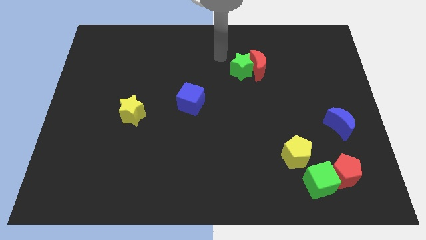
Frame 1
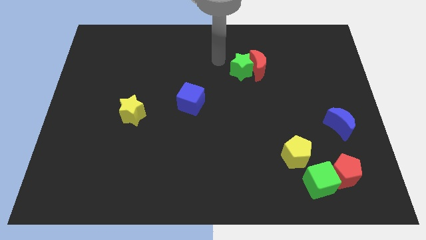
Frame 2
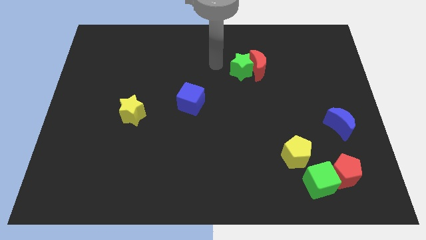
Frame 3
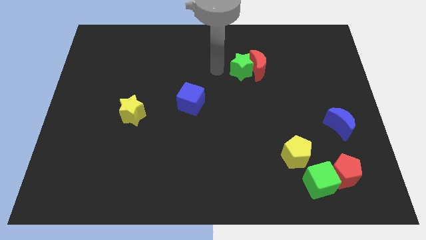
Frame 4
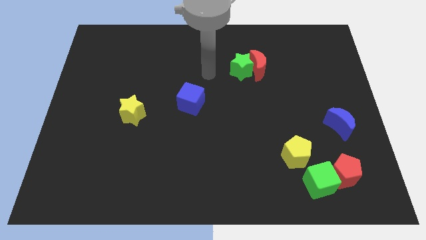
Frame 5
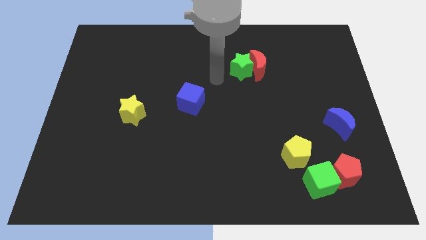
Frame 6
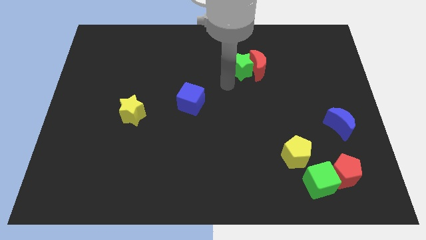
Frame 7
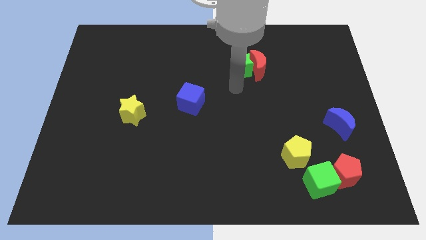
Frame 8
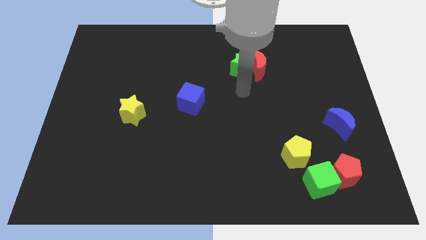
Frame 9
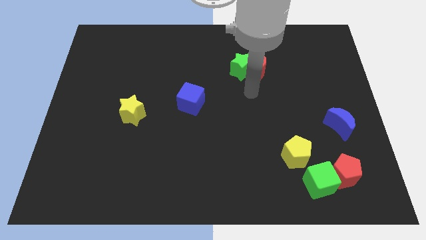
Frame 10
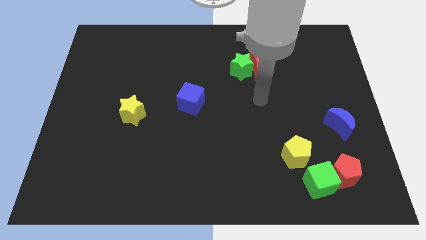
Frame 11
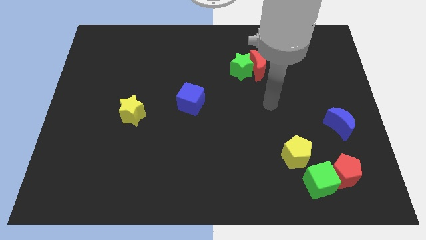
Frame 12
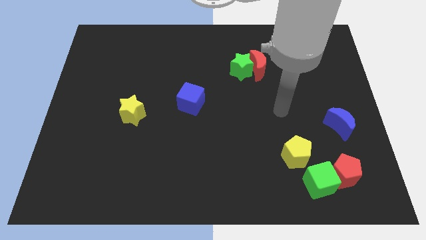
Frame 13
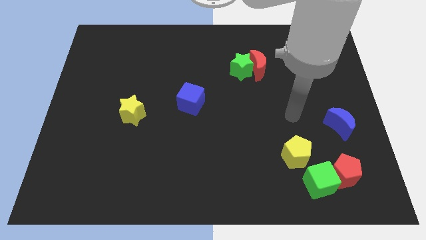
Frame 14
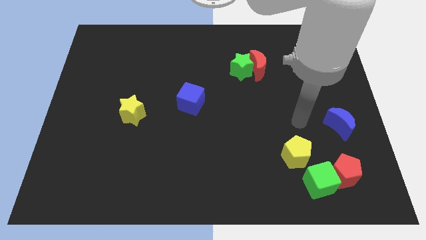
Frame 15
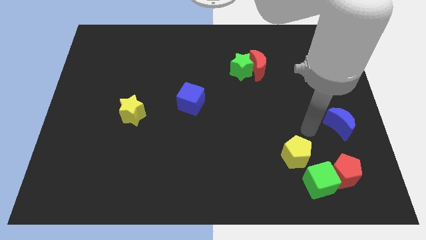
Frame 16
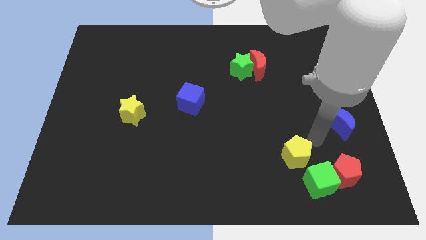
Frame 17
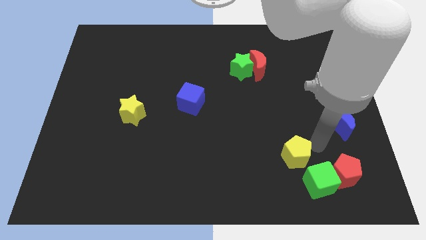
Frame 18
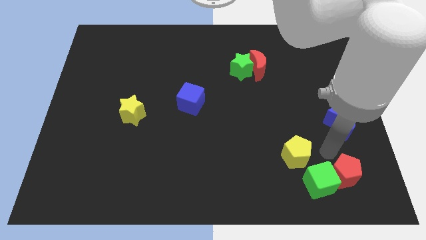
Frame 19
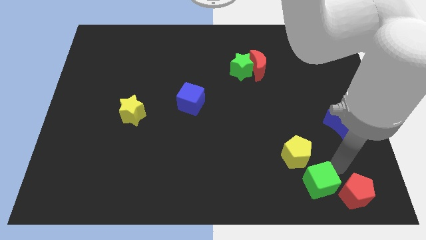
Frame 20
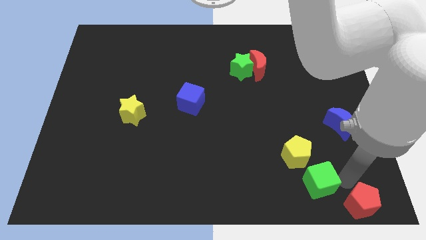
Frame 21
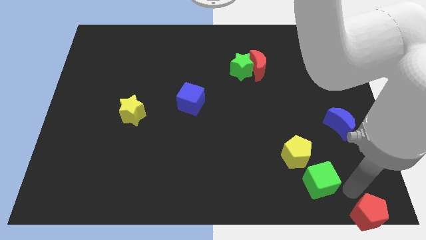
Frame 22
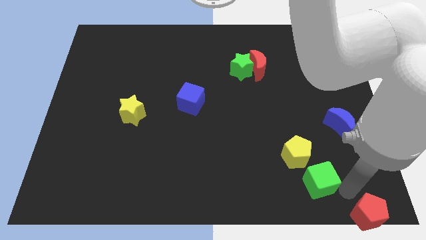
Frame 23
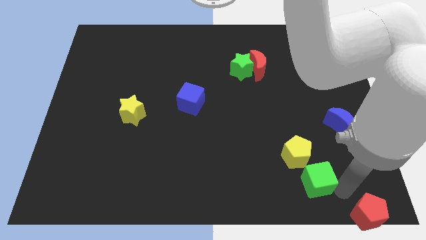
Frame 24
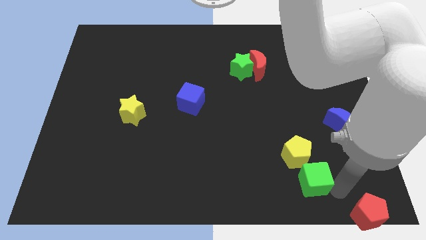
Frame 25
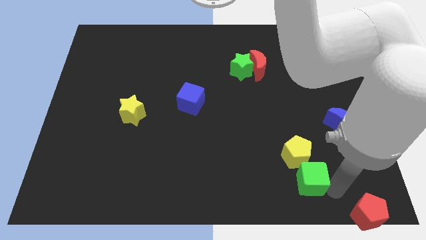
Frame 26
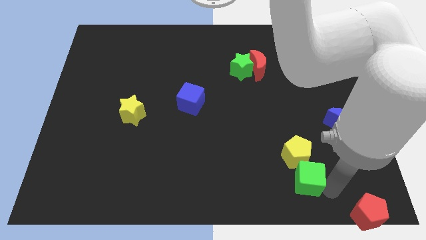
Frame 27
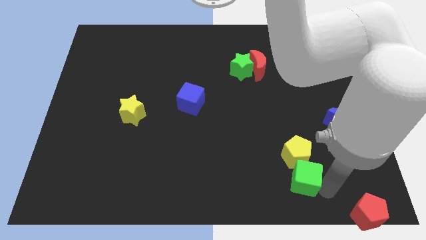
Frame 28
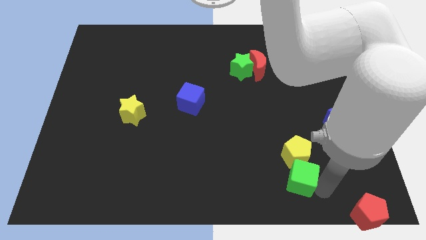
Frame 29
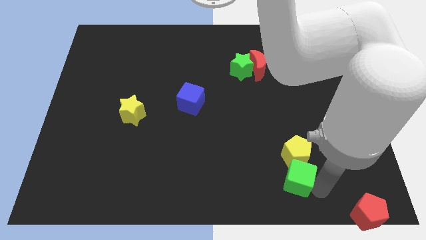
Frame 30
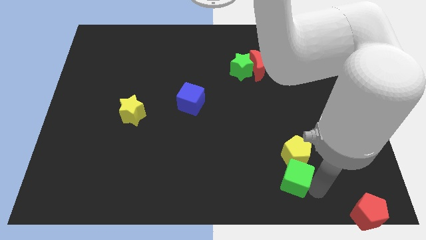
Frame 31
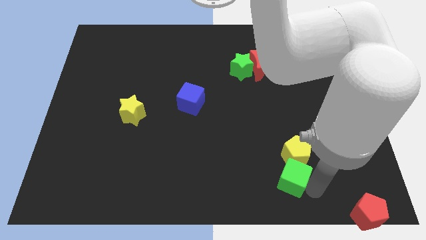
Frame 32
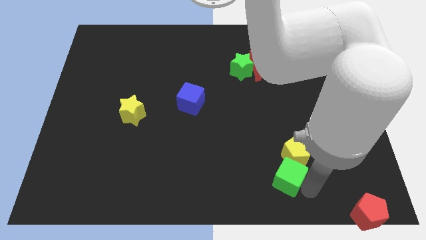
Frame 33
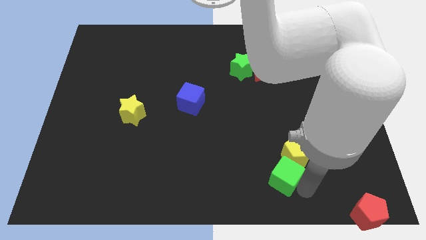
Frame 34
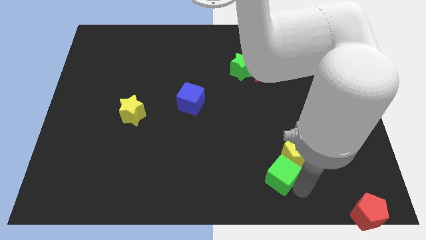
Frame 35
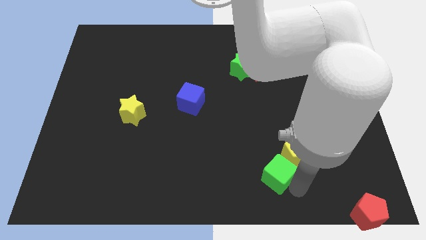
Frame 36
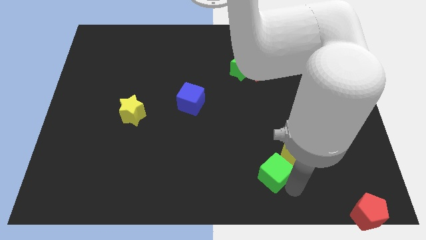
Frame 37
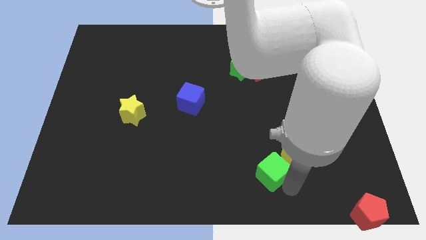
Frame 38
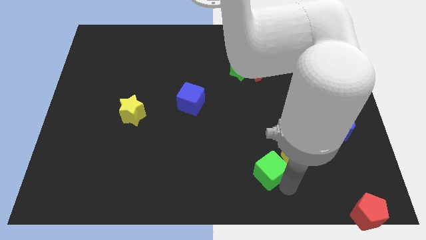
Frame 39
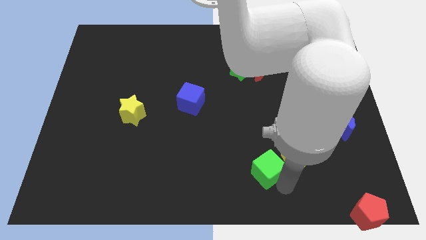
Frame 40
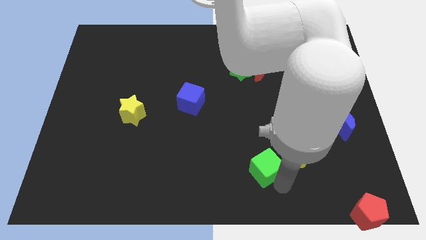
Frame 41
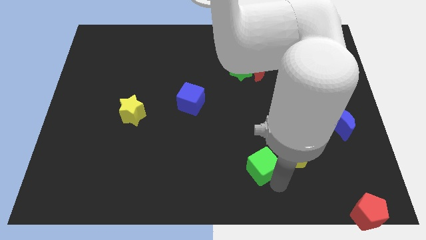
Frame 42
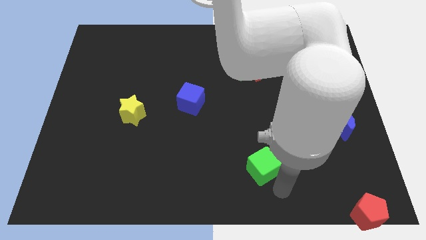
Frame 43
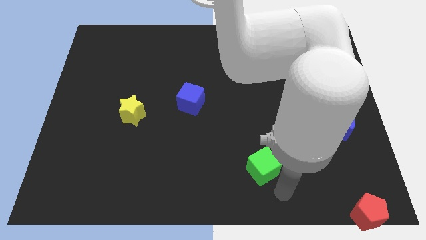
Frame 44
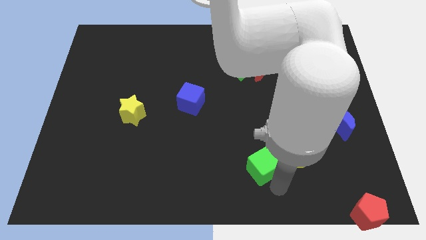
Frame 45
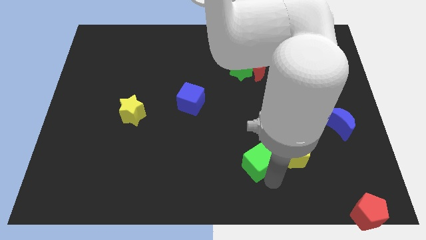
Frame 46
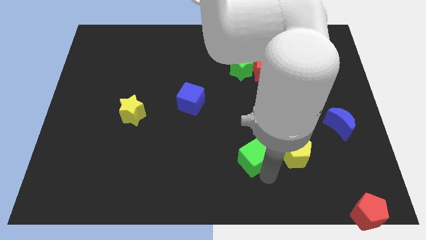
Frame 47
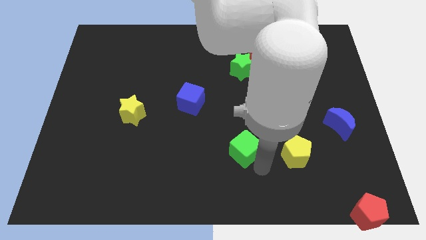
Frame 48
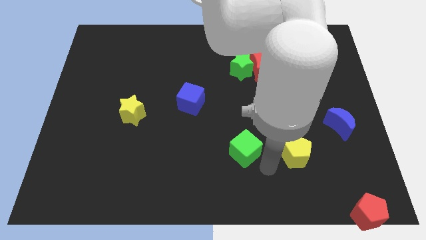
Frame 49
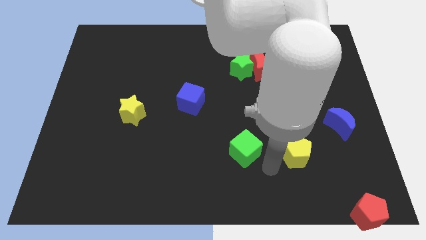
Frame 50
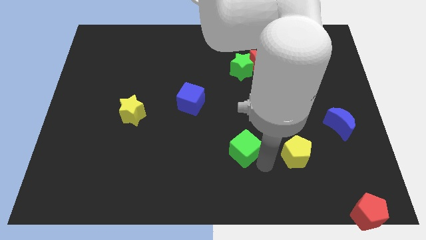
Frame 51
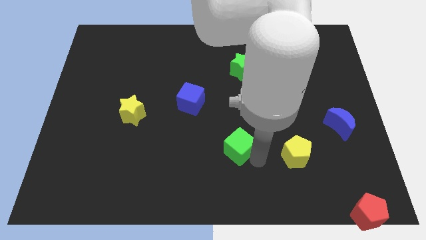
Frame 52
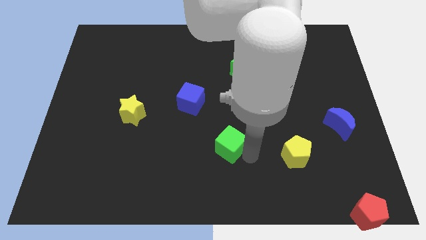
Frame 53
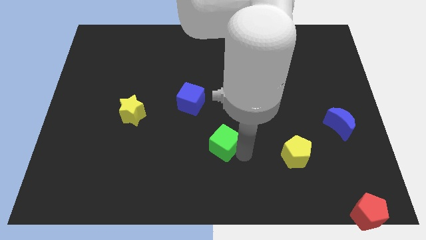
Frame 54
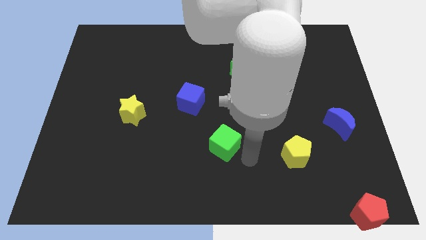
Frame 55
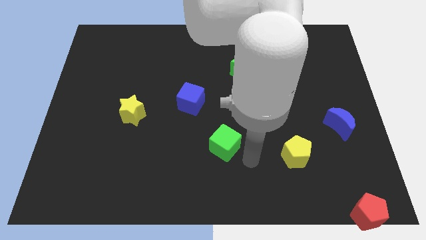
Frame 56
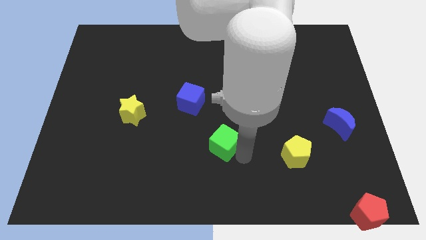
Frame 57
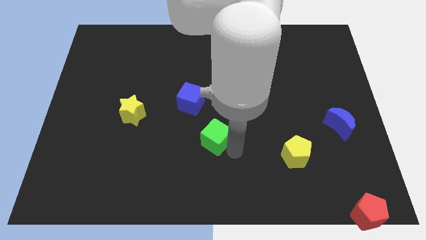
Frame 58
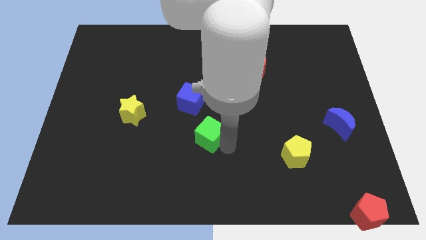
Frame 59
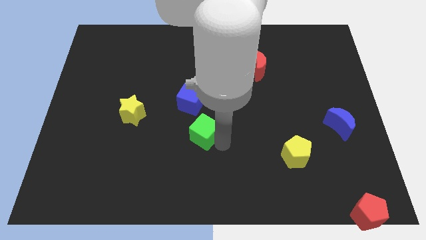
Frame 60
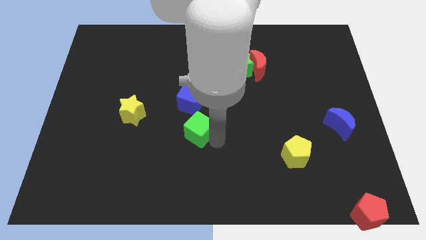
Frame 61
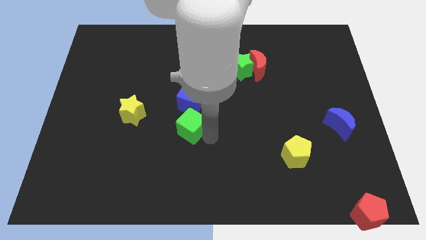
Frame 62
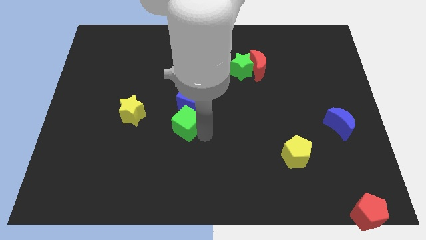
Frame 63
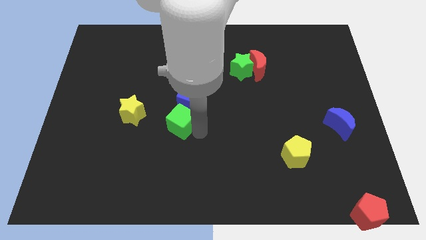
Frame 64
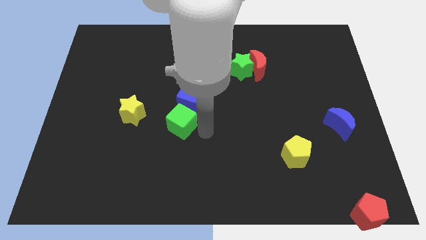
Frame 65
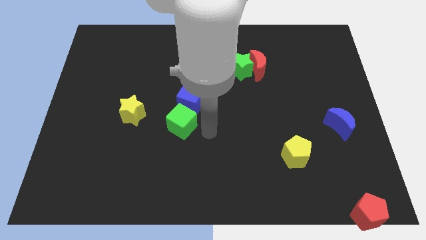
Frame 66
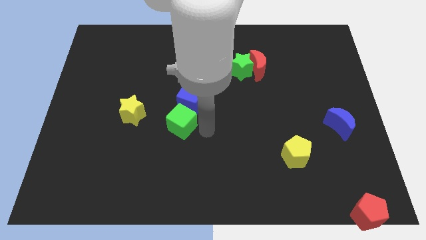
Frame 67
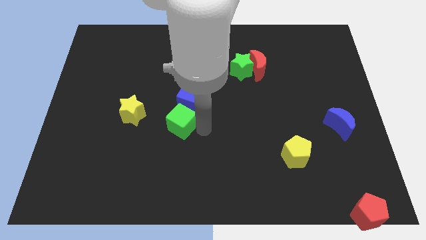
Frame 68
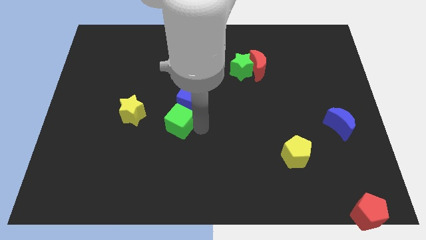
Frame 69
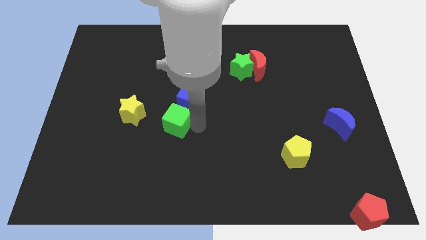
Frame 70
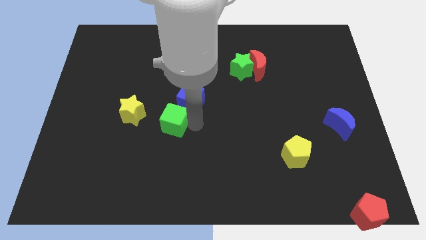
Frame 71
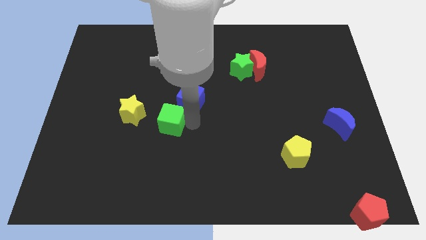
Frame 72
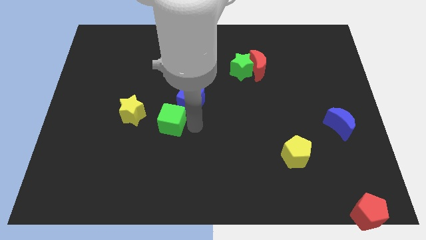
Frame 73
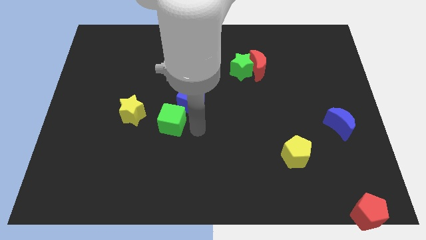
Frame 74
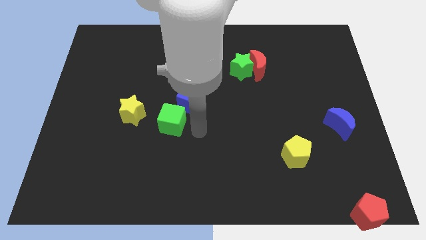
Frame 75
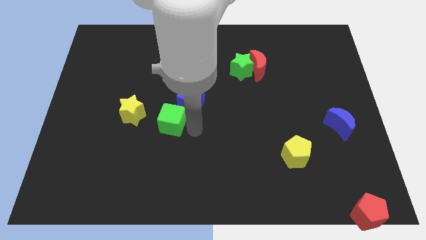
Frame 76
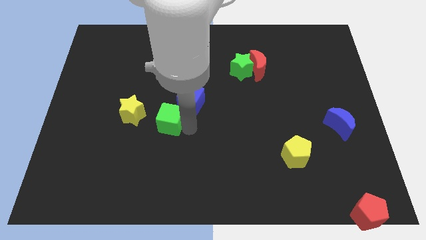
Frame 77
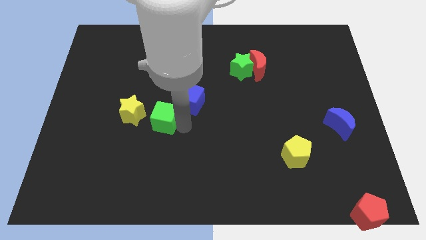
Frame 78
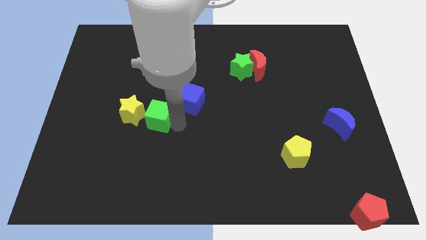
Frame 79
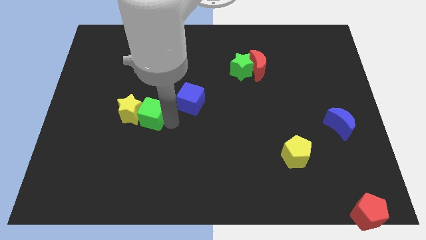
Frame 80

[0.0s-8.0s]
put the green cube to the yellow star
